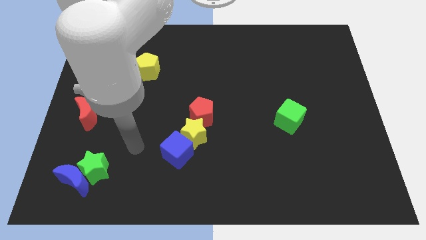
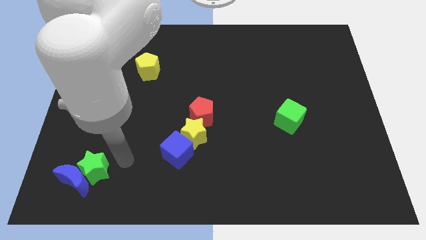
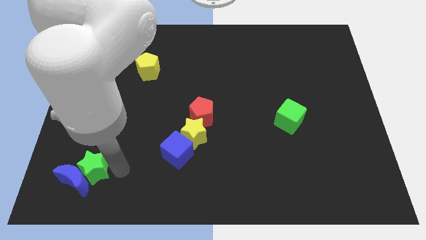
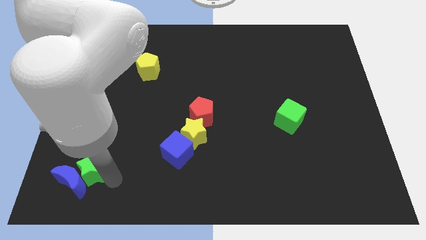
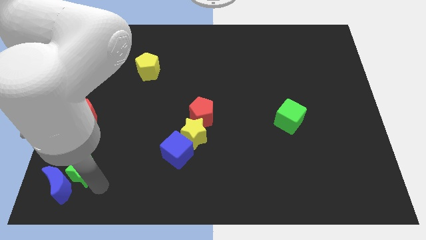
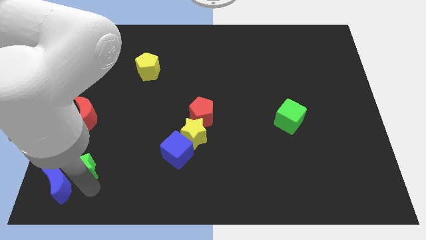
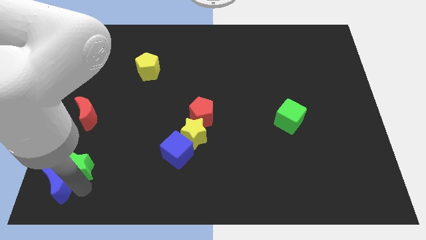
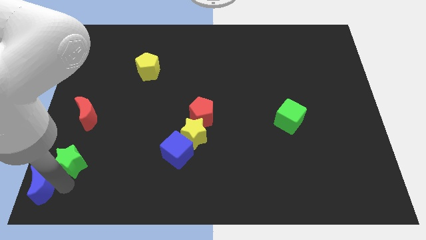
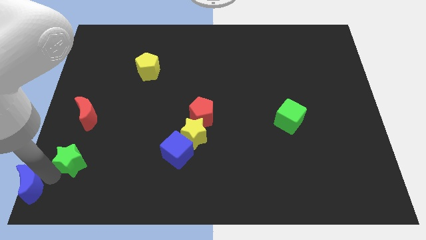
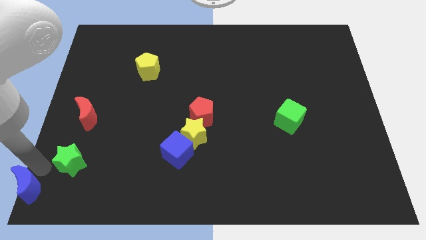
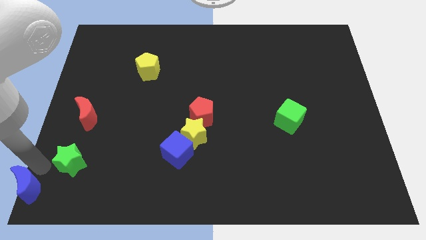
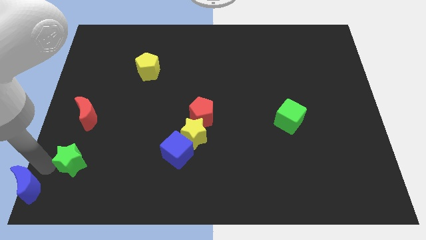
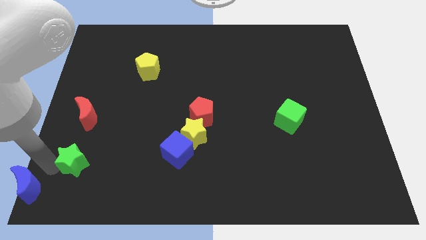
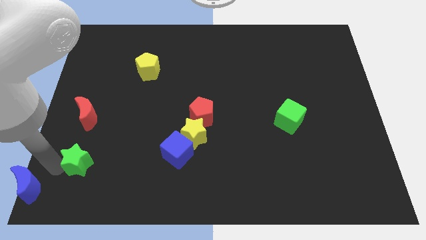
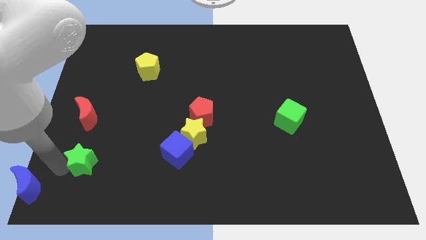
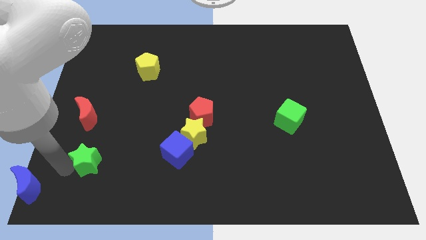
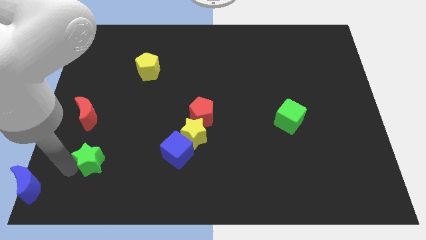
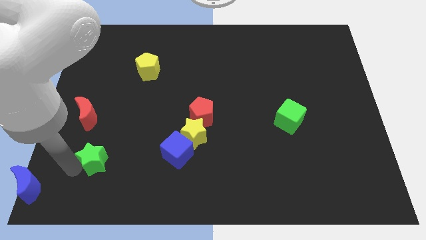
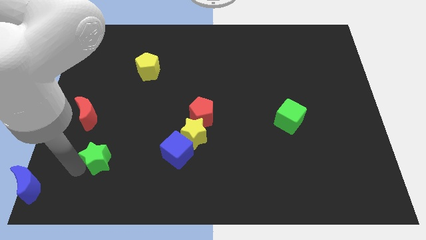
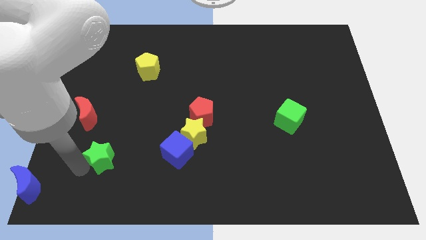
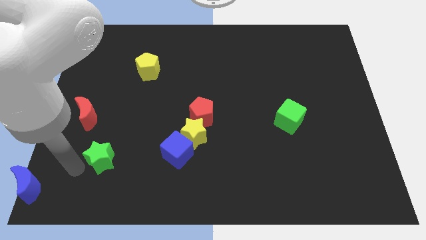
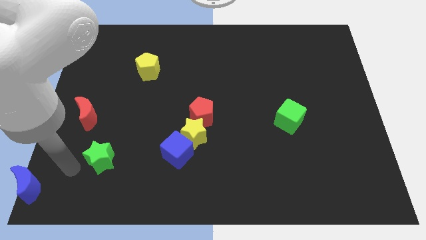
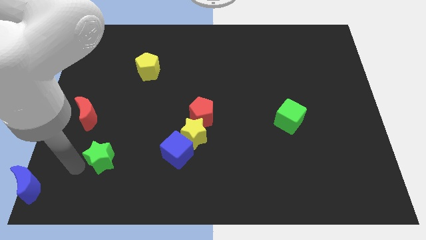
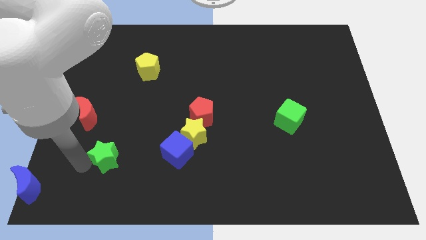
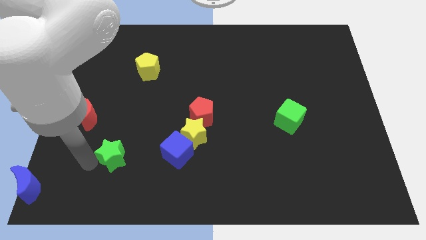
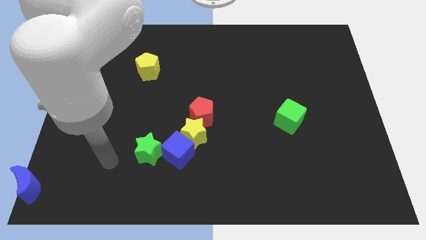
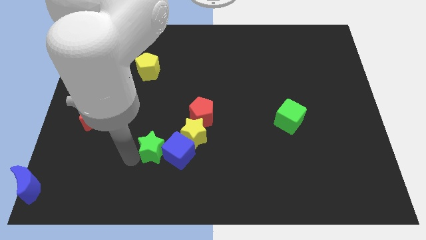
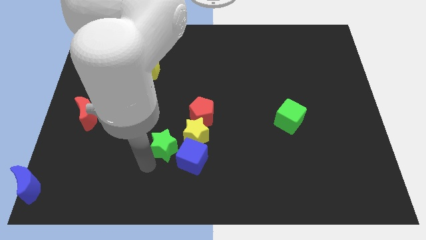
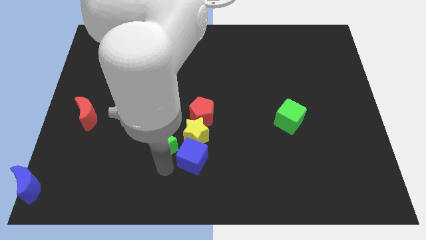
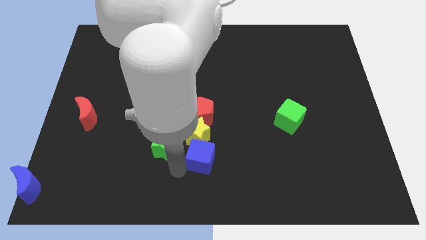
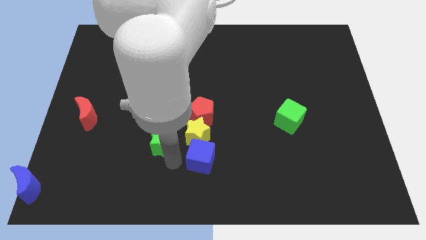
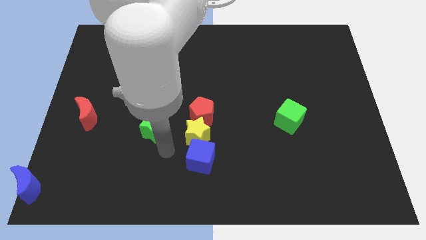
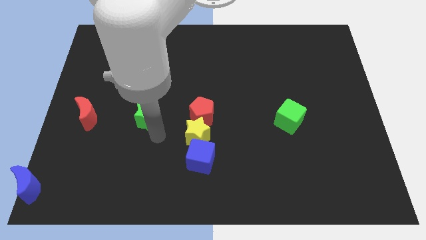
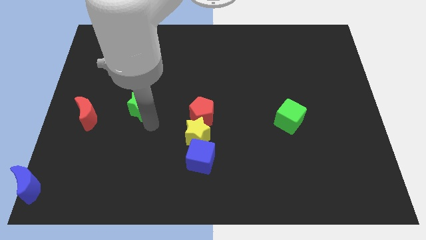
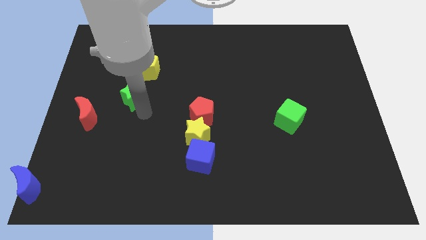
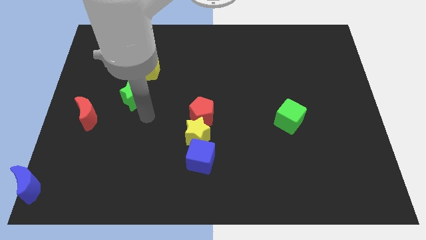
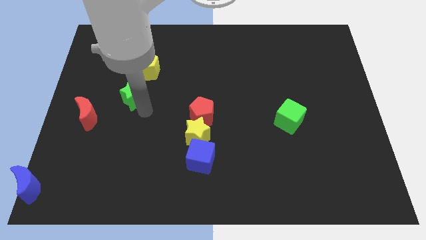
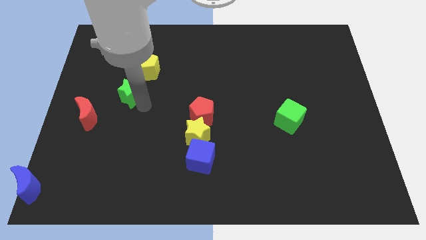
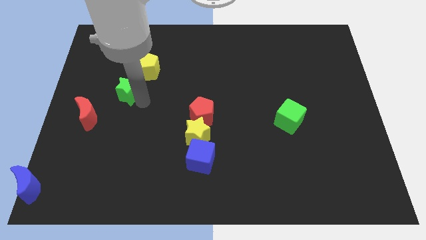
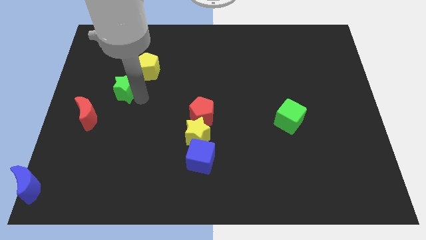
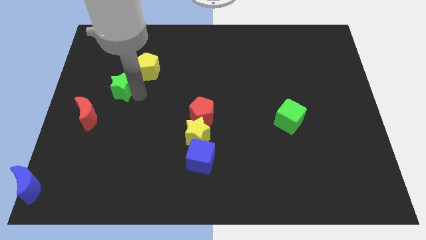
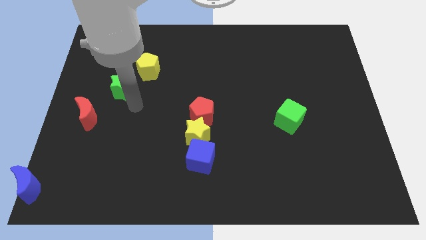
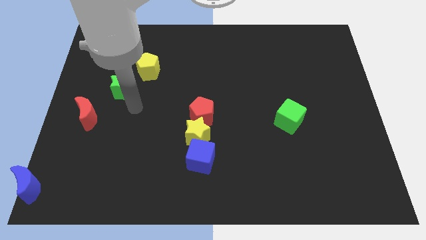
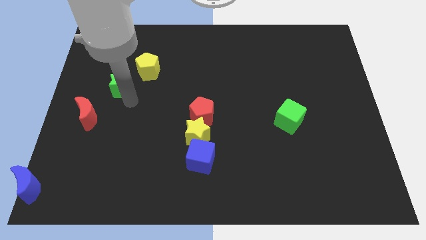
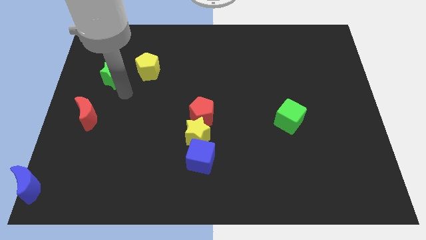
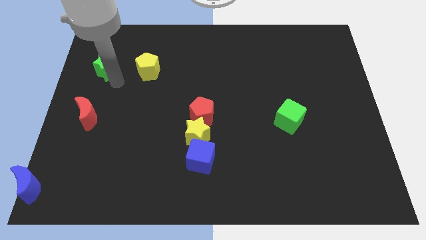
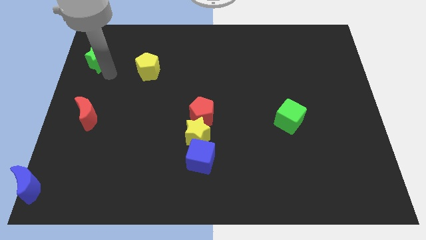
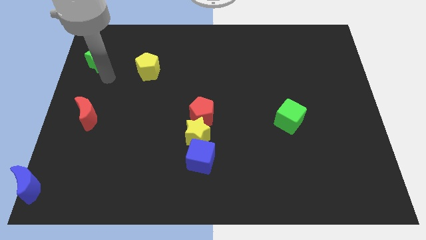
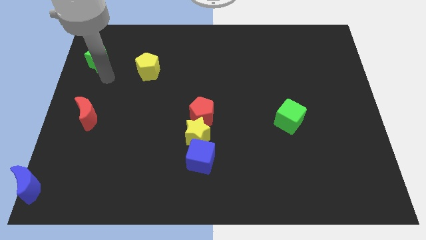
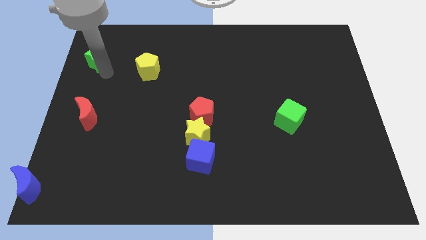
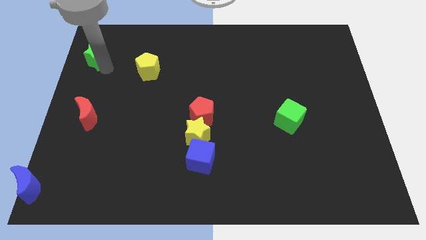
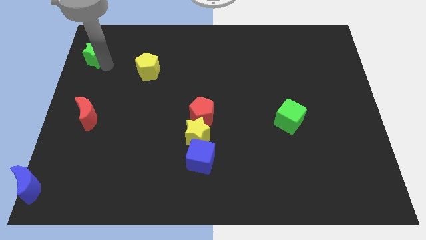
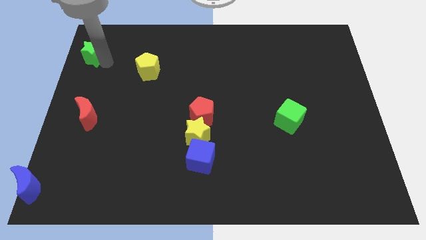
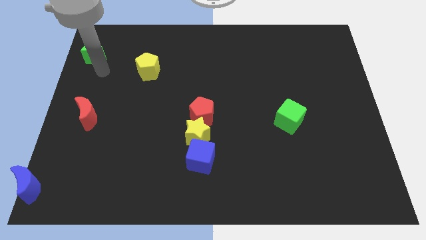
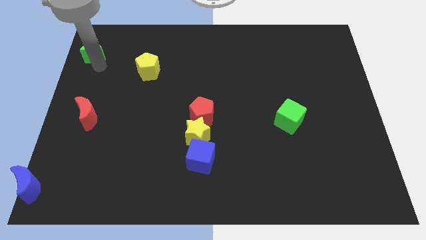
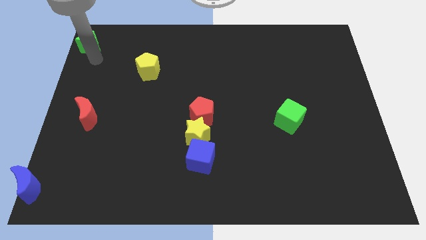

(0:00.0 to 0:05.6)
move the green star to the upper left corner

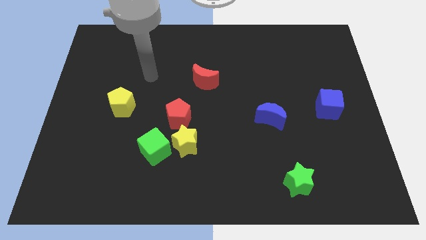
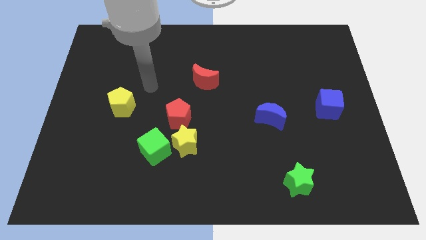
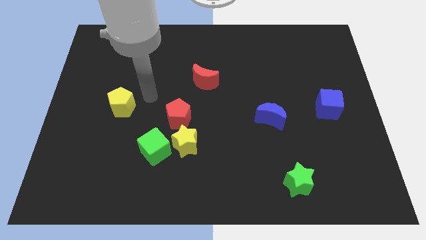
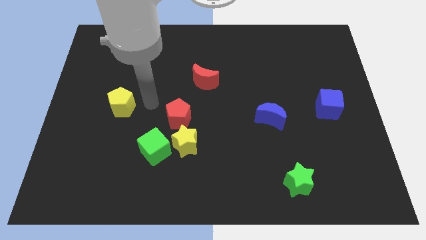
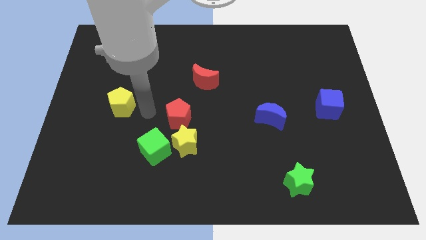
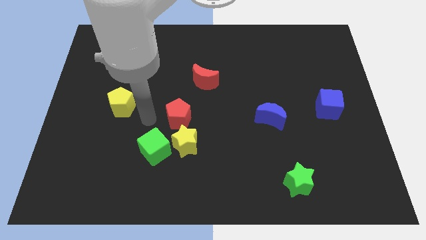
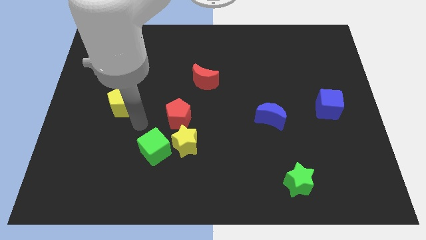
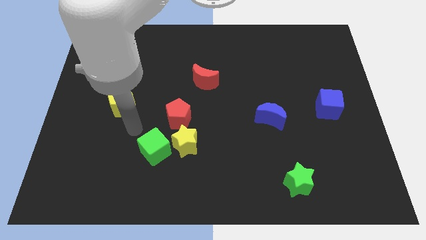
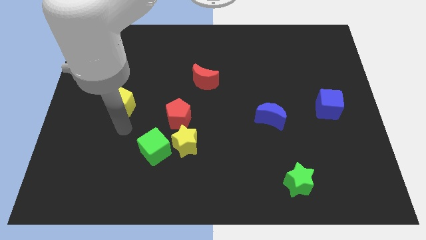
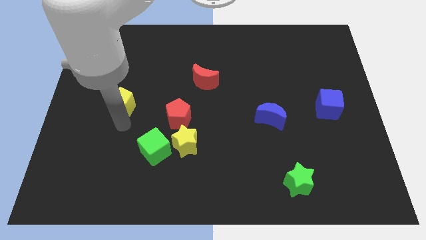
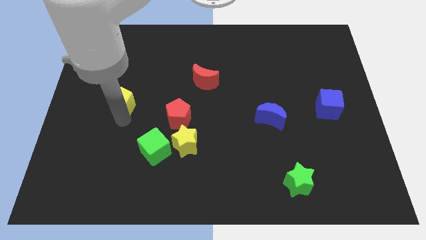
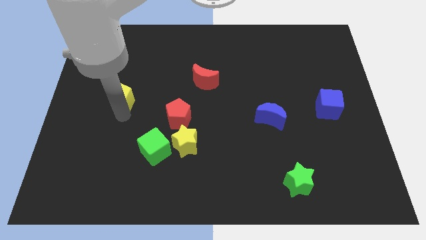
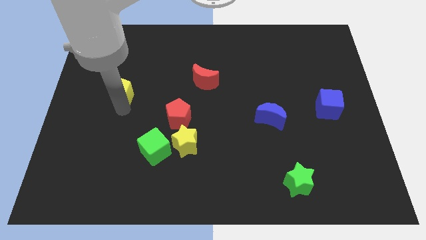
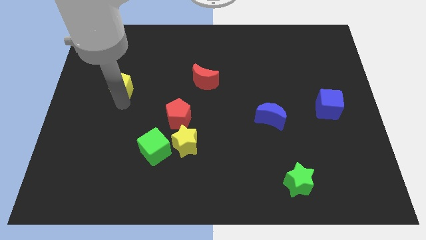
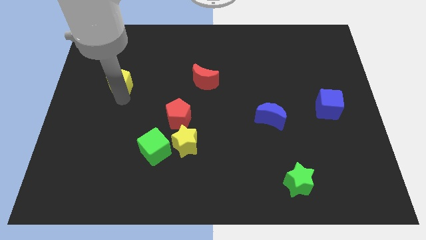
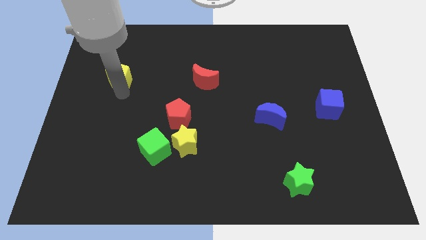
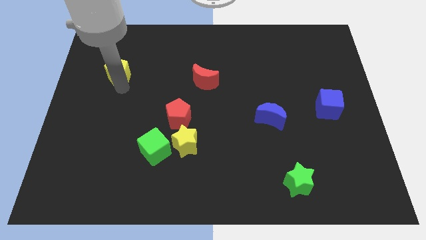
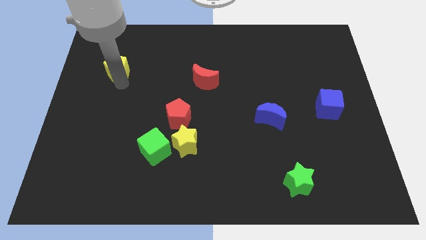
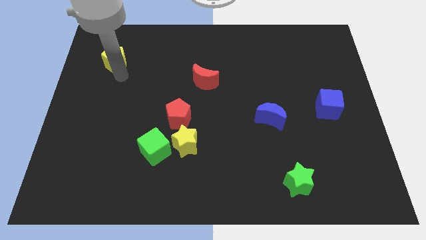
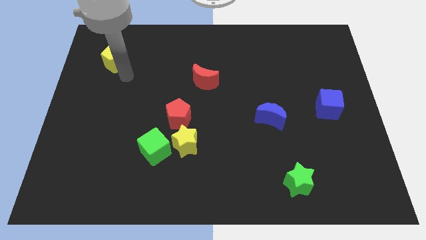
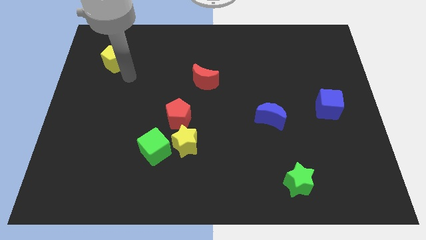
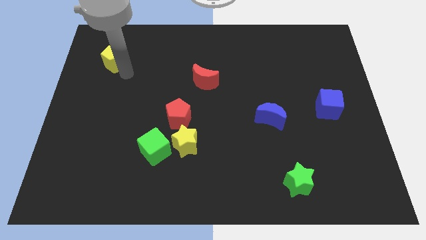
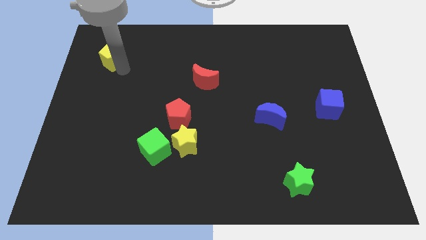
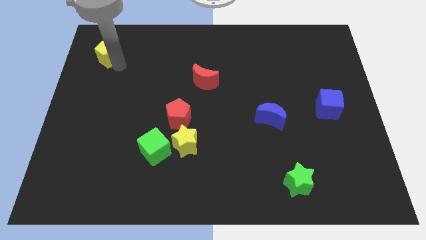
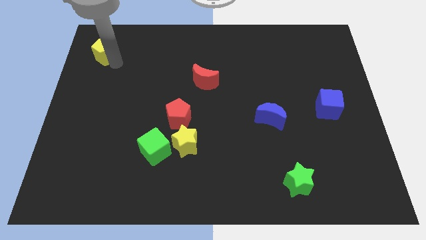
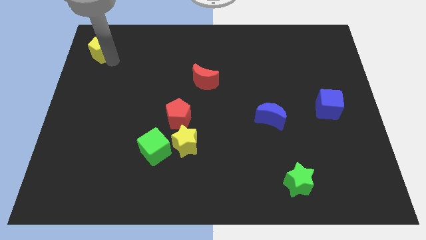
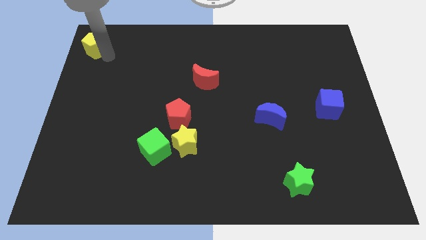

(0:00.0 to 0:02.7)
put the yellow pentagon to the top left
